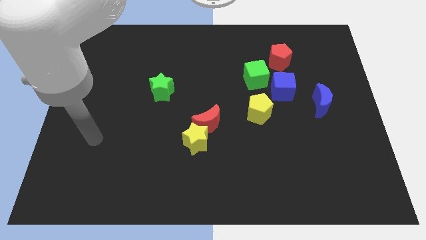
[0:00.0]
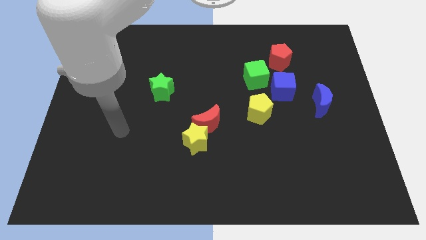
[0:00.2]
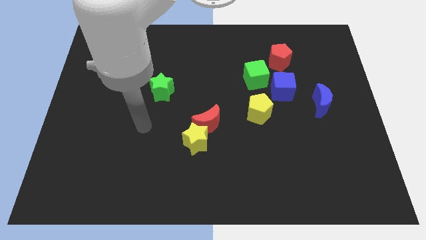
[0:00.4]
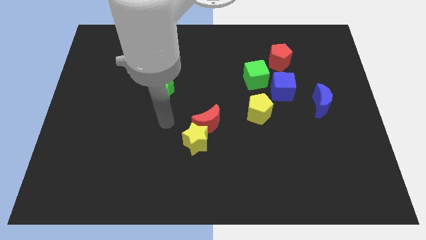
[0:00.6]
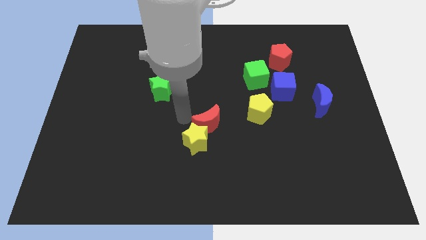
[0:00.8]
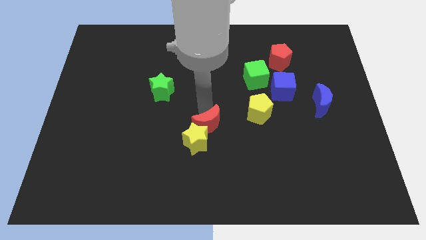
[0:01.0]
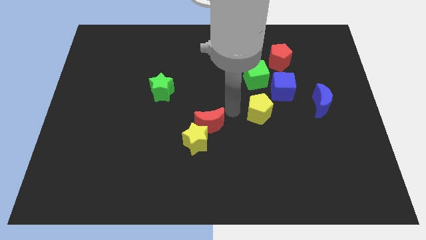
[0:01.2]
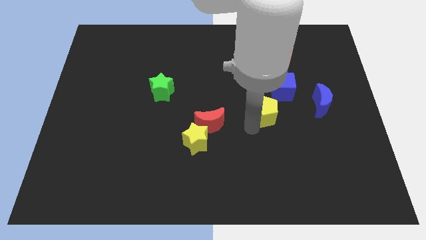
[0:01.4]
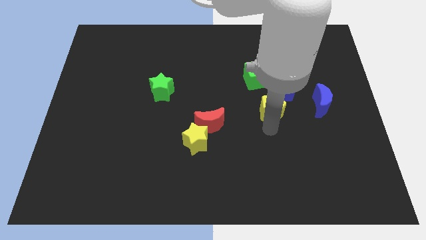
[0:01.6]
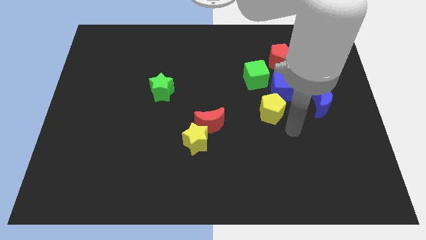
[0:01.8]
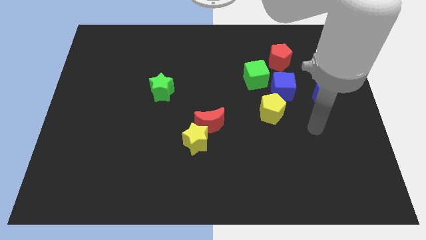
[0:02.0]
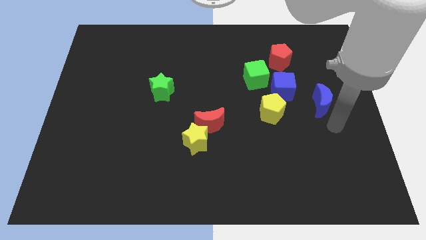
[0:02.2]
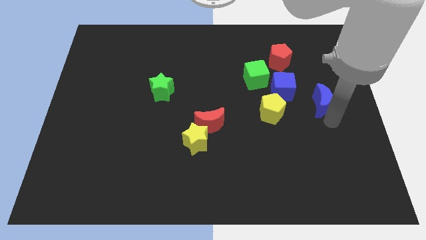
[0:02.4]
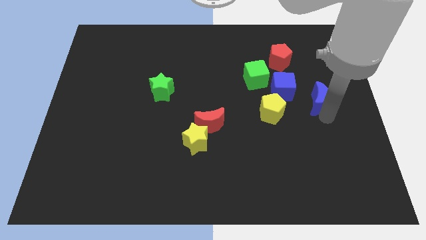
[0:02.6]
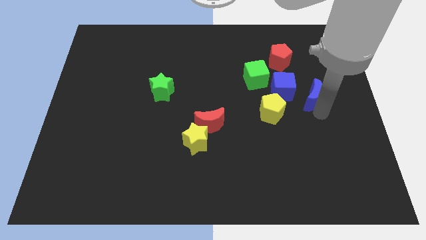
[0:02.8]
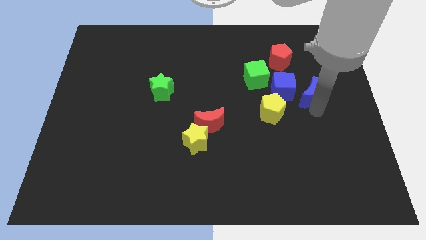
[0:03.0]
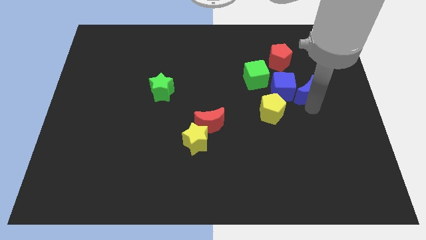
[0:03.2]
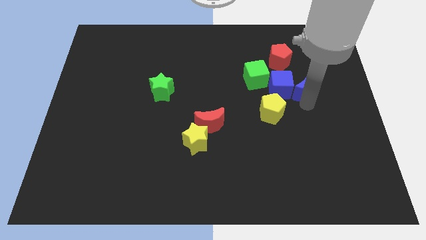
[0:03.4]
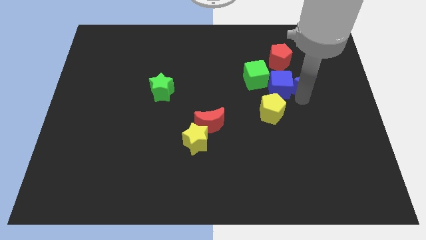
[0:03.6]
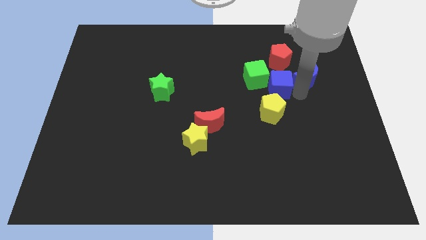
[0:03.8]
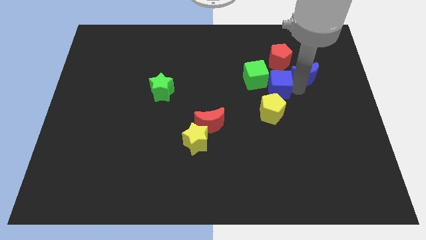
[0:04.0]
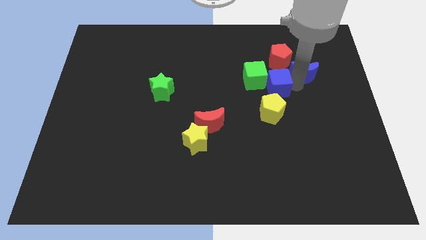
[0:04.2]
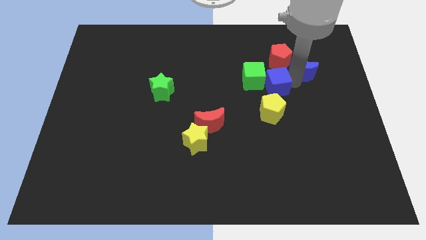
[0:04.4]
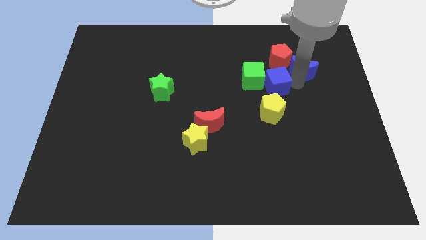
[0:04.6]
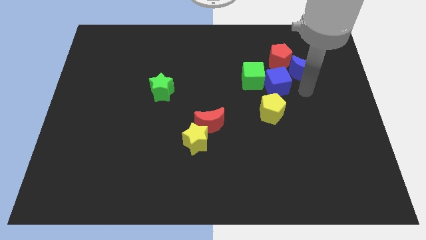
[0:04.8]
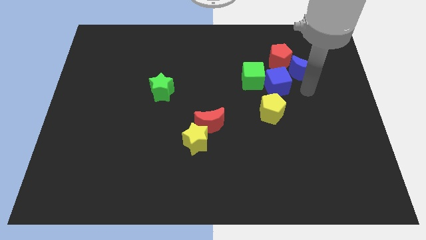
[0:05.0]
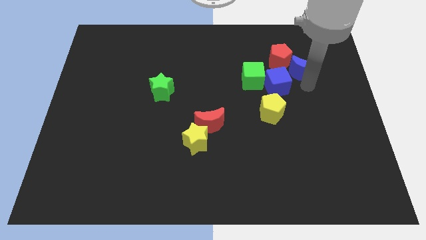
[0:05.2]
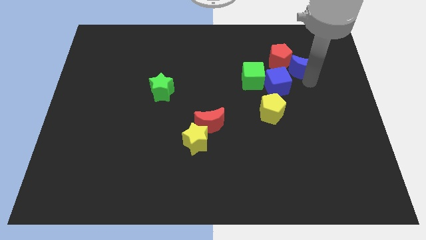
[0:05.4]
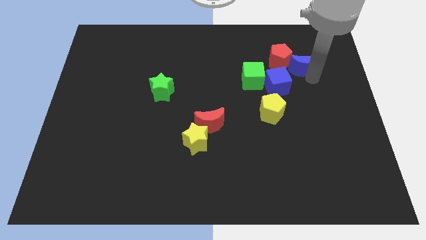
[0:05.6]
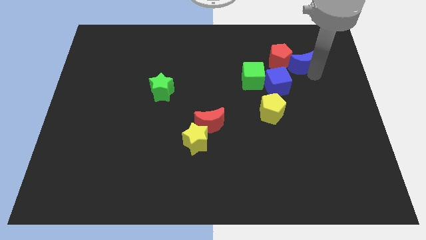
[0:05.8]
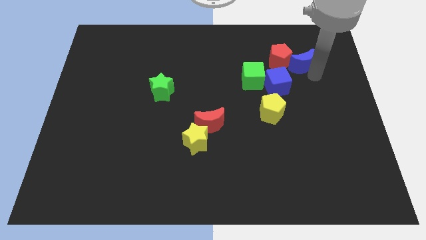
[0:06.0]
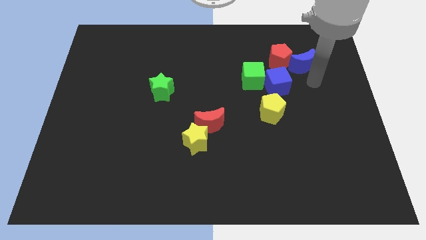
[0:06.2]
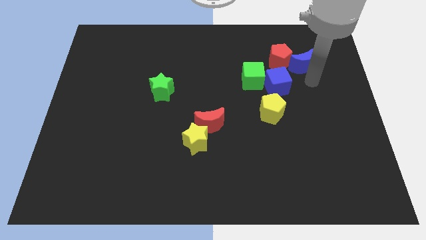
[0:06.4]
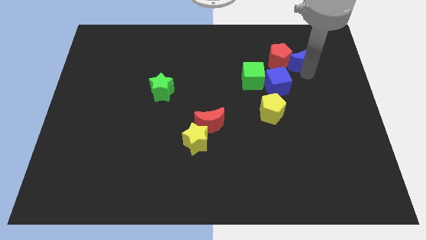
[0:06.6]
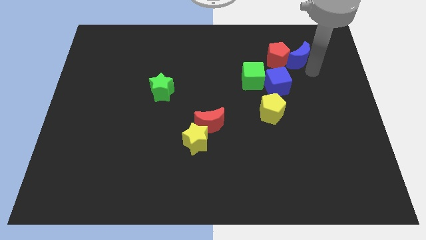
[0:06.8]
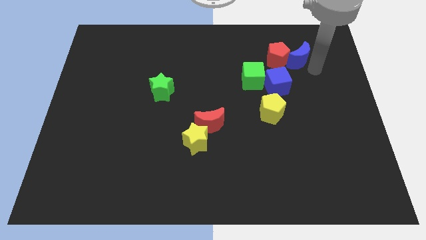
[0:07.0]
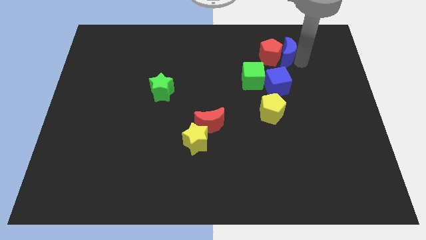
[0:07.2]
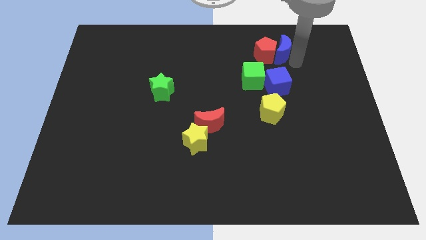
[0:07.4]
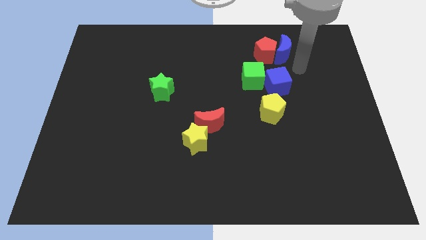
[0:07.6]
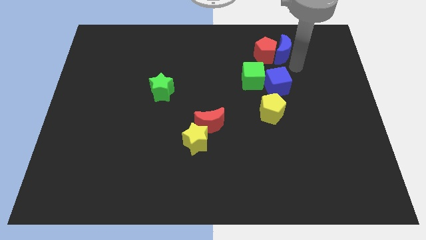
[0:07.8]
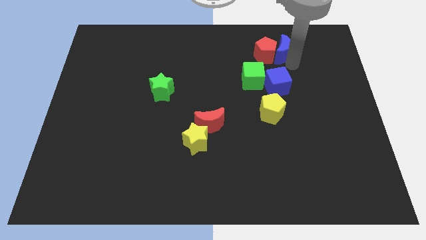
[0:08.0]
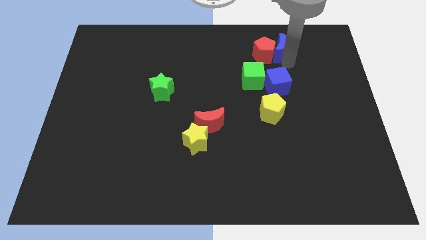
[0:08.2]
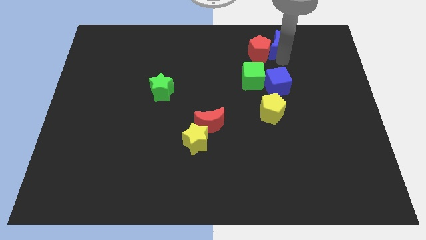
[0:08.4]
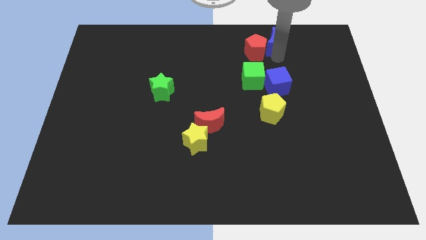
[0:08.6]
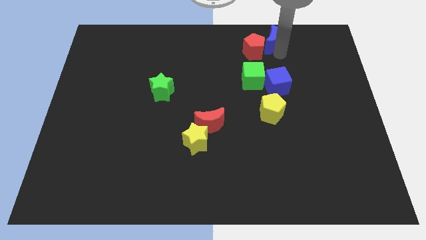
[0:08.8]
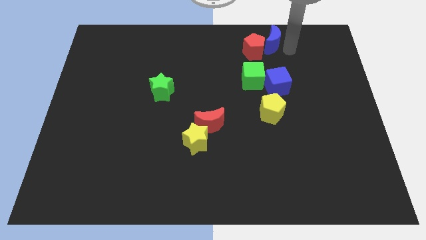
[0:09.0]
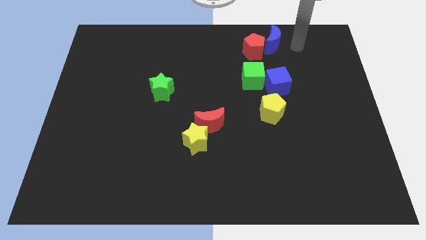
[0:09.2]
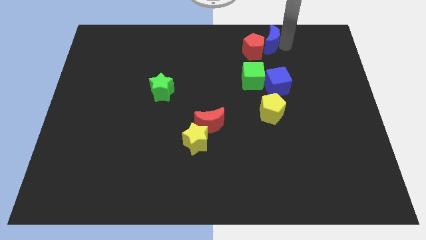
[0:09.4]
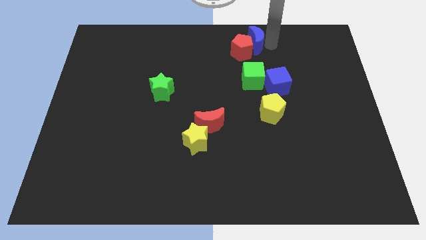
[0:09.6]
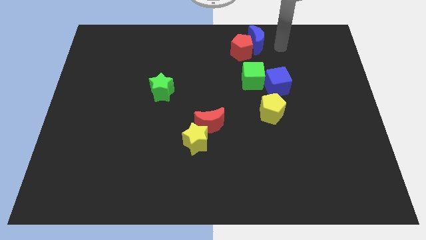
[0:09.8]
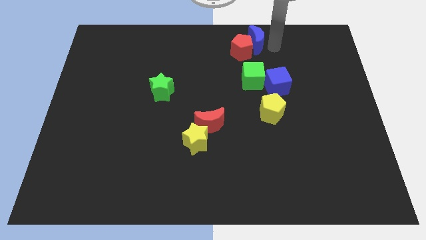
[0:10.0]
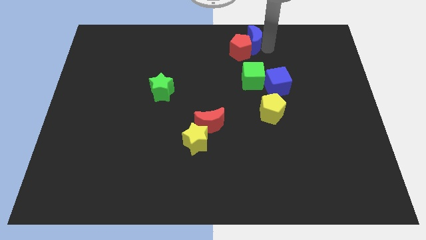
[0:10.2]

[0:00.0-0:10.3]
move the blue moon to the towards your base

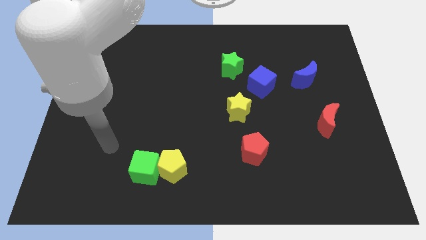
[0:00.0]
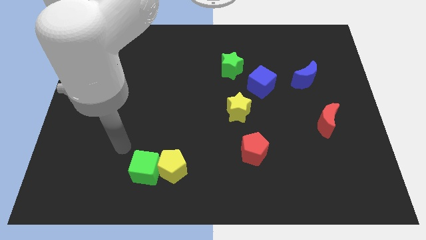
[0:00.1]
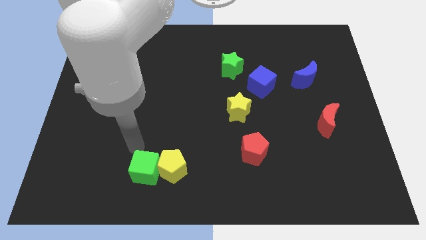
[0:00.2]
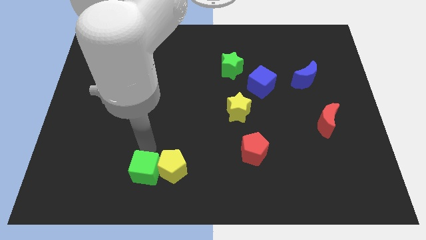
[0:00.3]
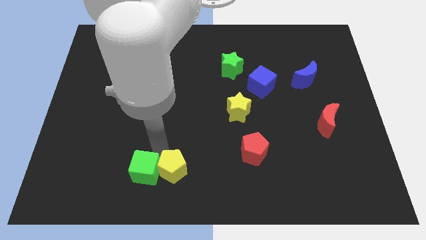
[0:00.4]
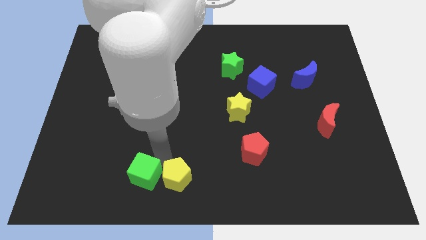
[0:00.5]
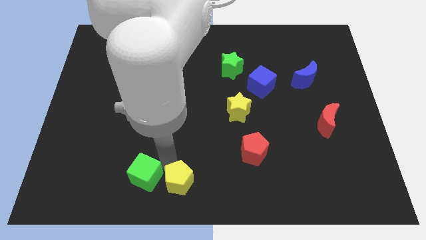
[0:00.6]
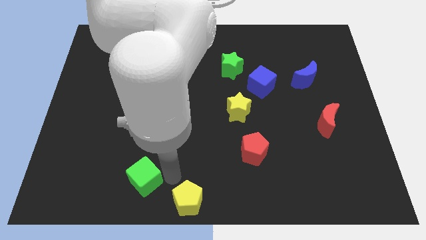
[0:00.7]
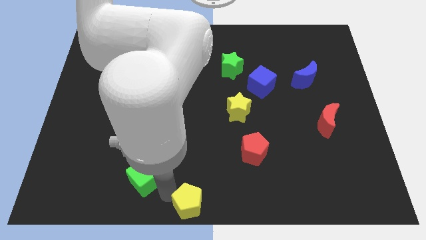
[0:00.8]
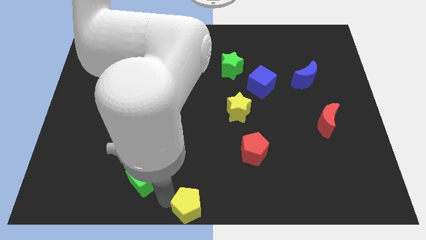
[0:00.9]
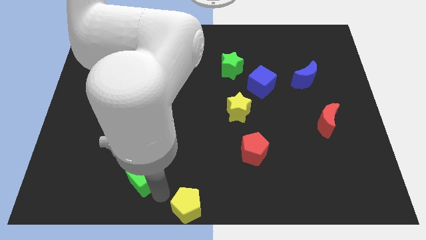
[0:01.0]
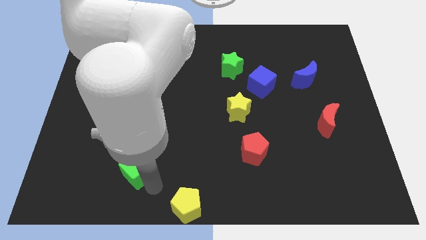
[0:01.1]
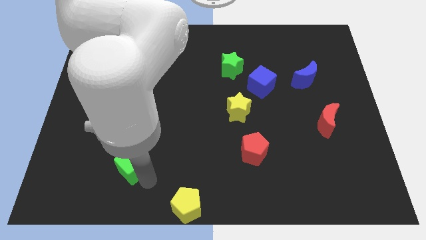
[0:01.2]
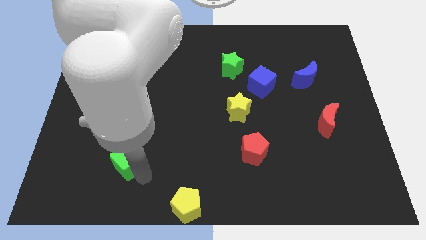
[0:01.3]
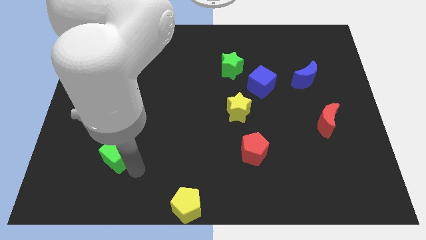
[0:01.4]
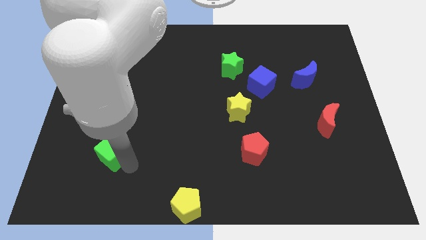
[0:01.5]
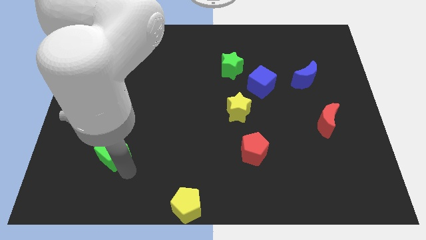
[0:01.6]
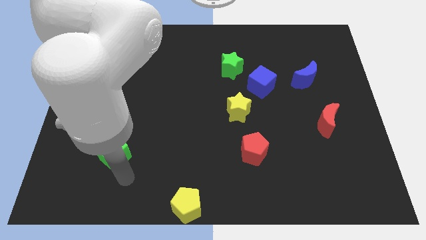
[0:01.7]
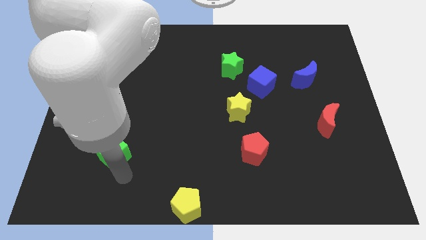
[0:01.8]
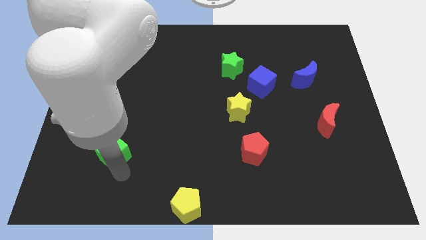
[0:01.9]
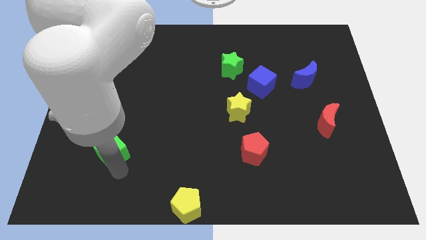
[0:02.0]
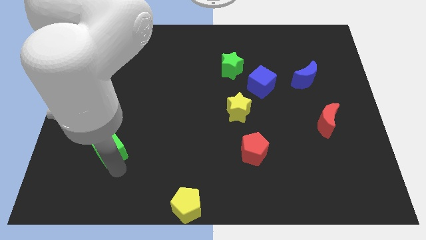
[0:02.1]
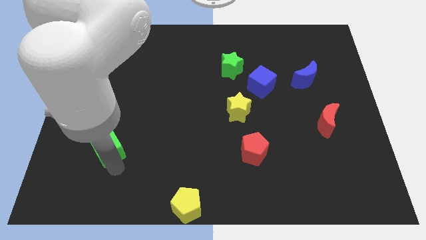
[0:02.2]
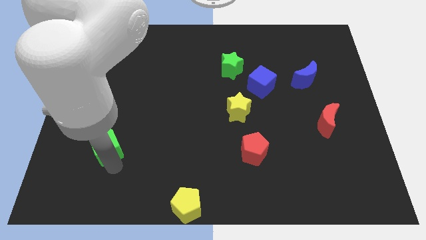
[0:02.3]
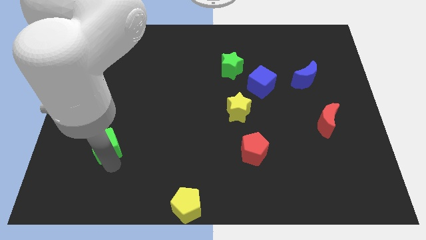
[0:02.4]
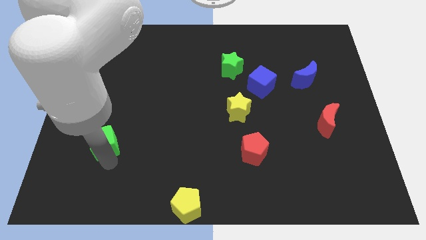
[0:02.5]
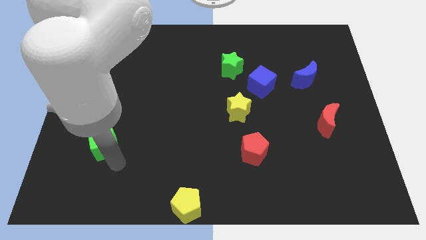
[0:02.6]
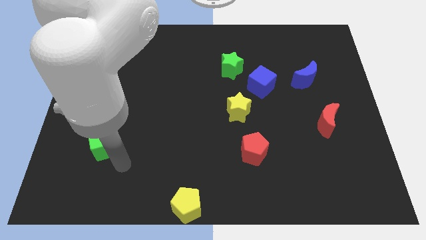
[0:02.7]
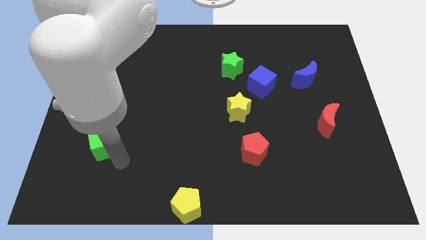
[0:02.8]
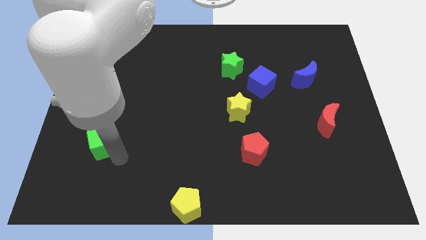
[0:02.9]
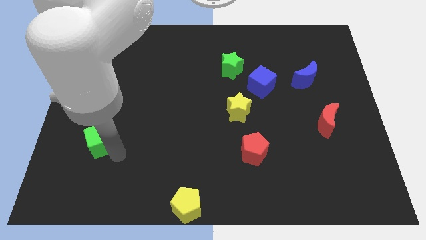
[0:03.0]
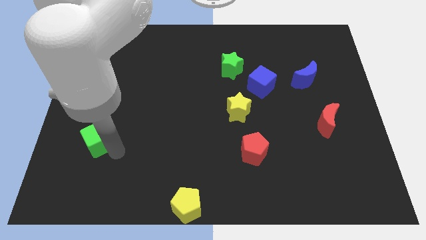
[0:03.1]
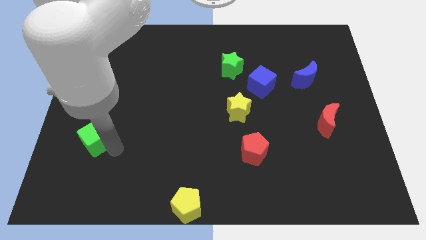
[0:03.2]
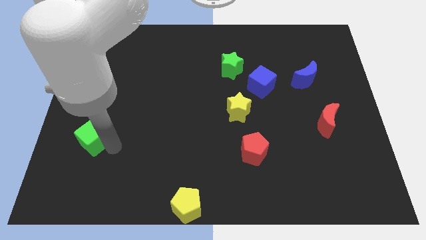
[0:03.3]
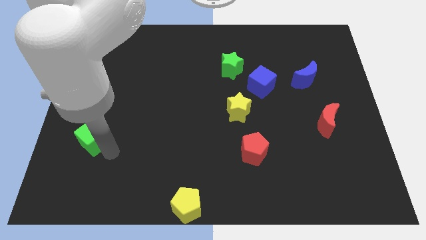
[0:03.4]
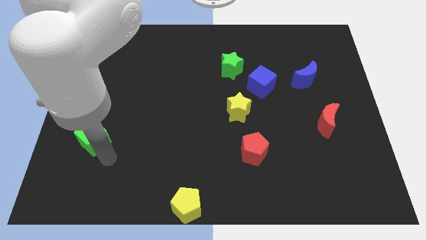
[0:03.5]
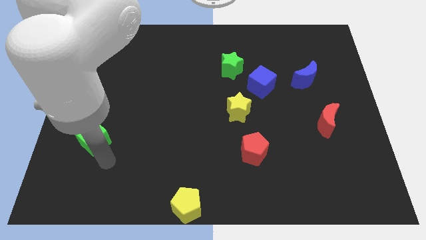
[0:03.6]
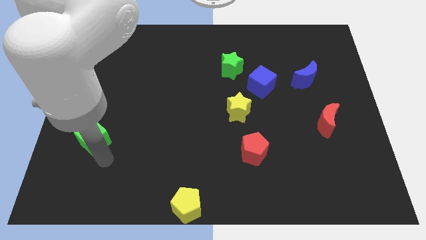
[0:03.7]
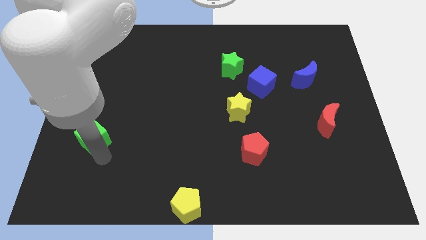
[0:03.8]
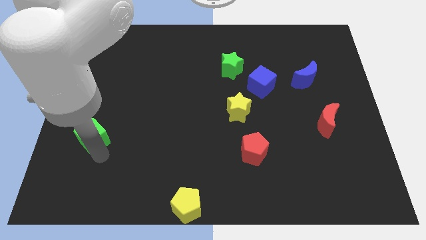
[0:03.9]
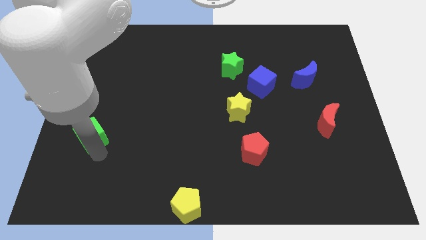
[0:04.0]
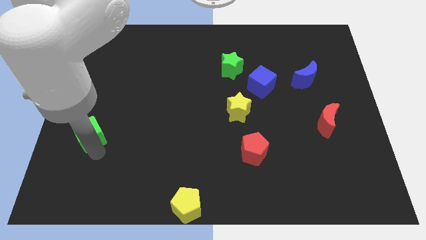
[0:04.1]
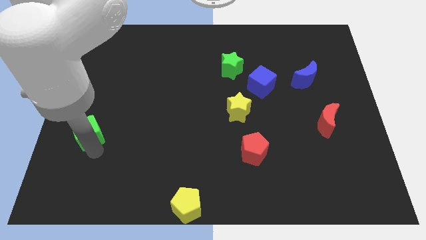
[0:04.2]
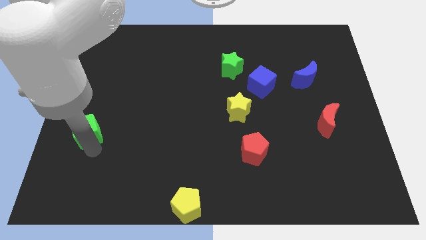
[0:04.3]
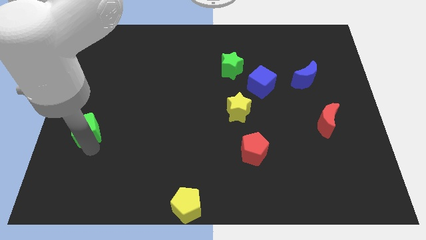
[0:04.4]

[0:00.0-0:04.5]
push the green cube to the left side
